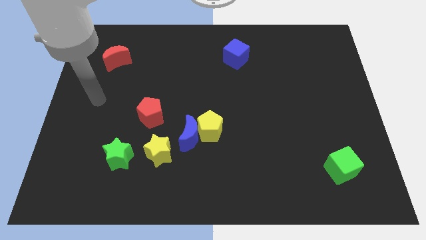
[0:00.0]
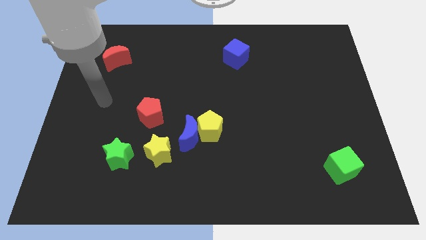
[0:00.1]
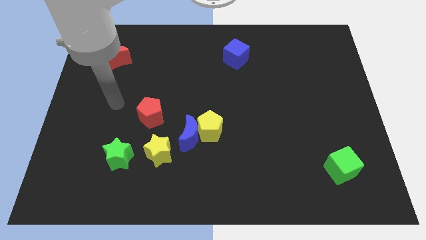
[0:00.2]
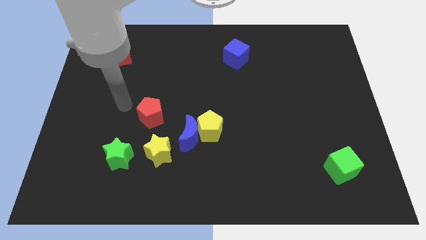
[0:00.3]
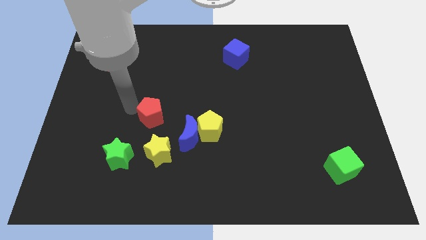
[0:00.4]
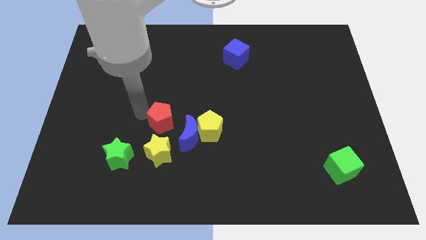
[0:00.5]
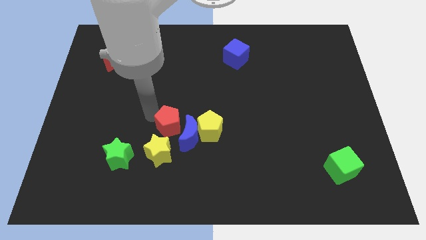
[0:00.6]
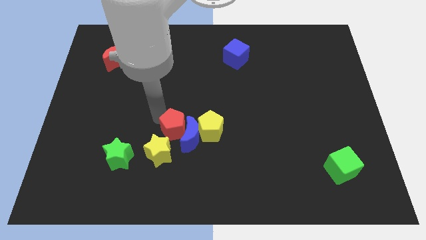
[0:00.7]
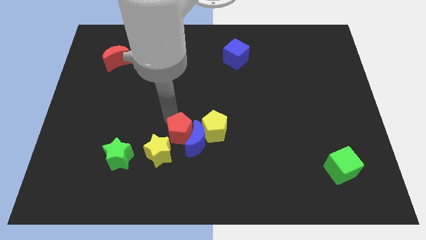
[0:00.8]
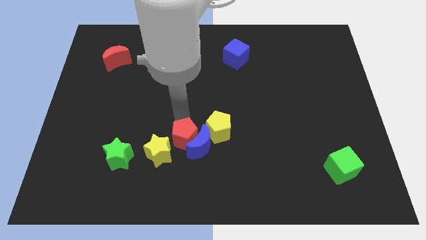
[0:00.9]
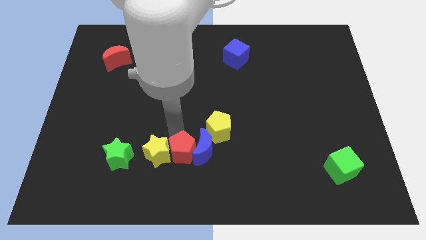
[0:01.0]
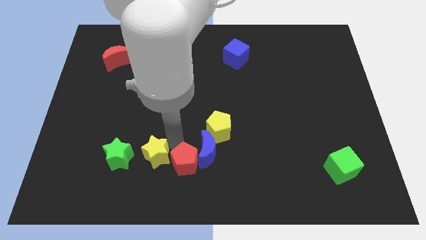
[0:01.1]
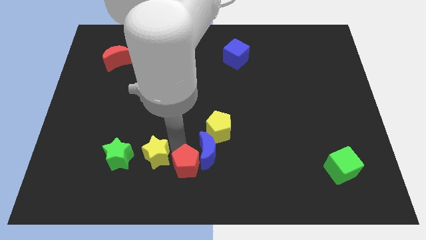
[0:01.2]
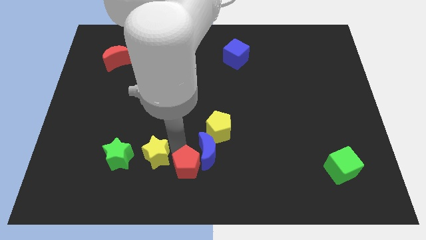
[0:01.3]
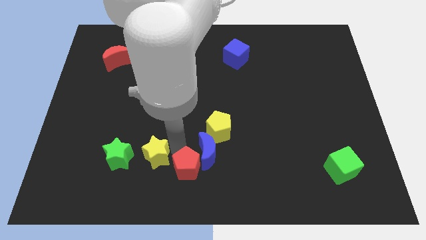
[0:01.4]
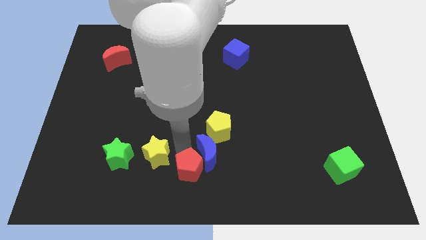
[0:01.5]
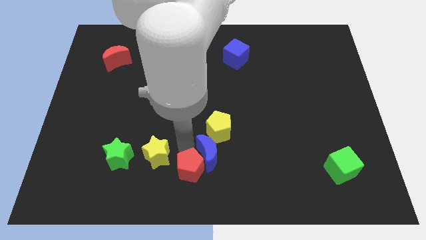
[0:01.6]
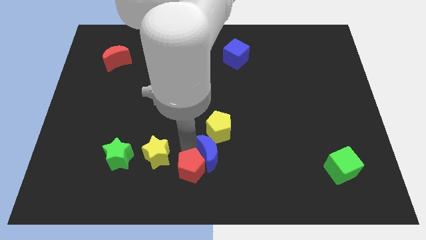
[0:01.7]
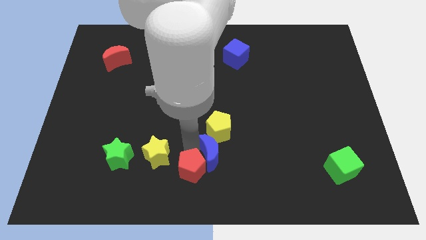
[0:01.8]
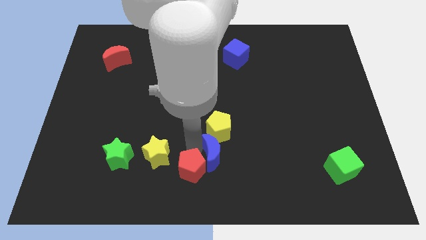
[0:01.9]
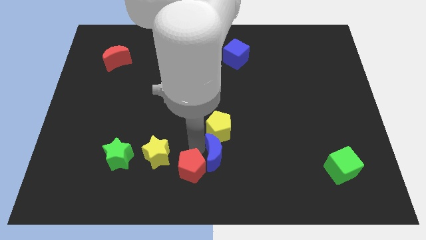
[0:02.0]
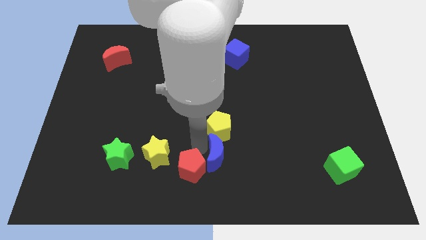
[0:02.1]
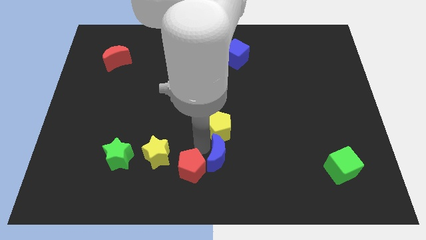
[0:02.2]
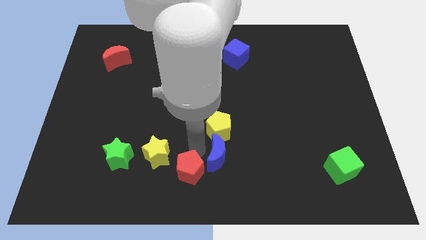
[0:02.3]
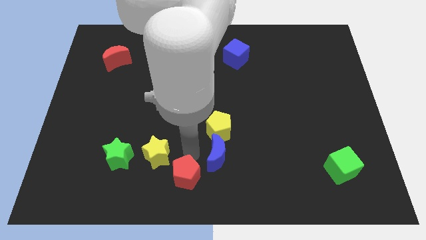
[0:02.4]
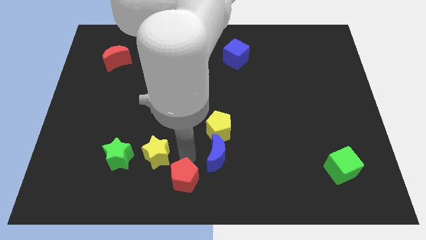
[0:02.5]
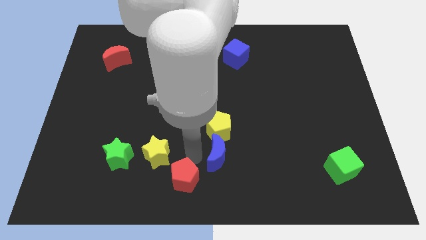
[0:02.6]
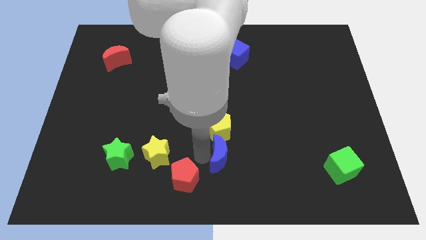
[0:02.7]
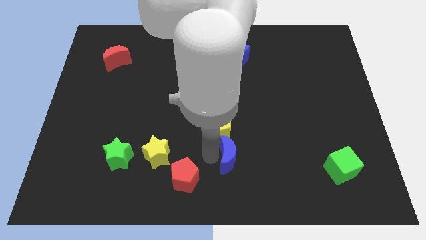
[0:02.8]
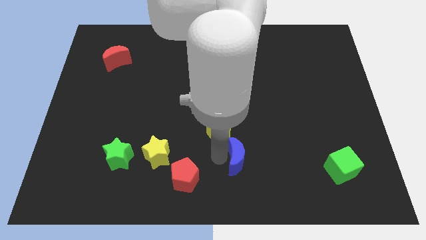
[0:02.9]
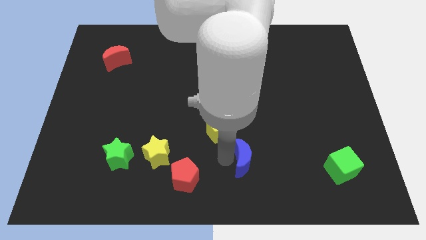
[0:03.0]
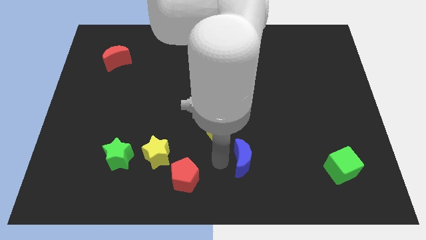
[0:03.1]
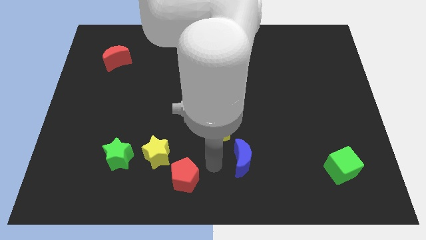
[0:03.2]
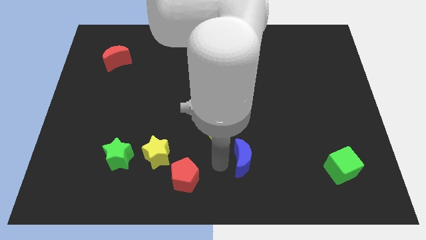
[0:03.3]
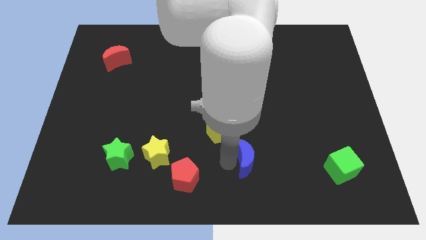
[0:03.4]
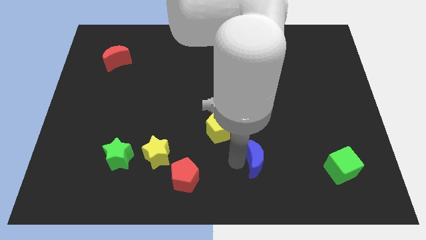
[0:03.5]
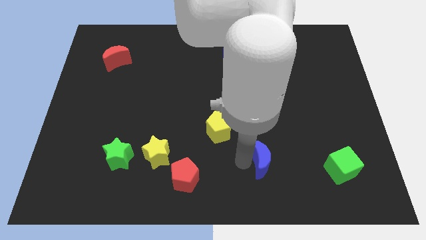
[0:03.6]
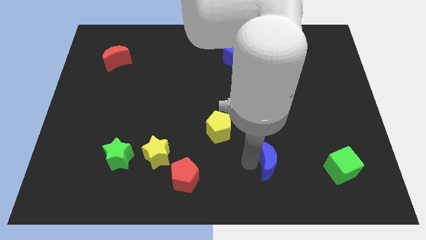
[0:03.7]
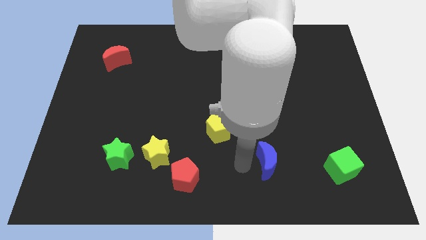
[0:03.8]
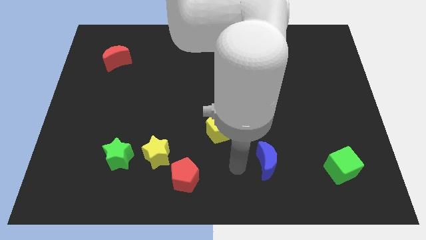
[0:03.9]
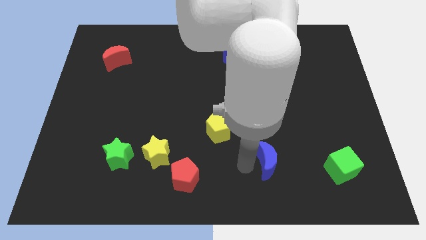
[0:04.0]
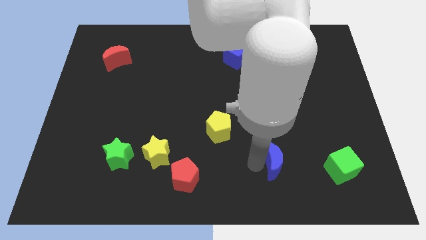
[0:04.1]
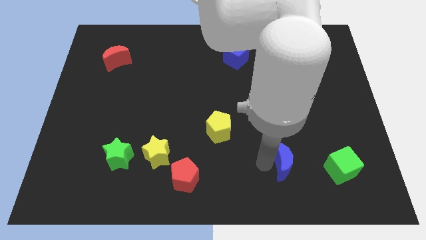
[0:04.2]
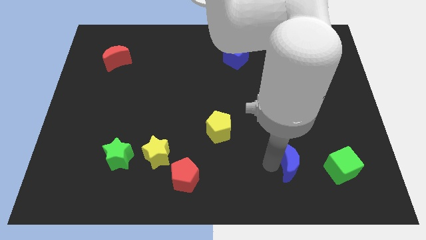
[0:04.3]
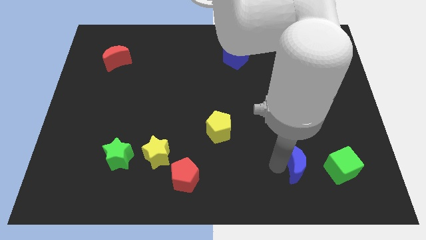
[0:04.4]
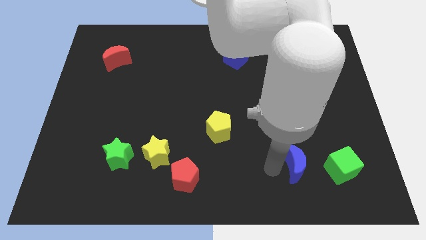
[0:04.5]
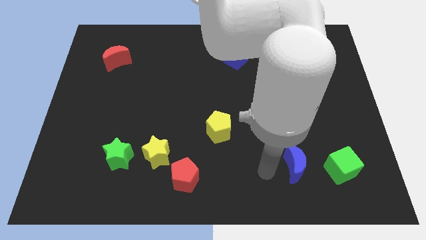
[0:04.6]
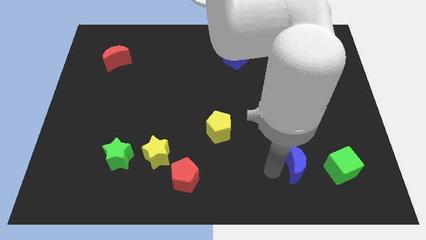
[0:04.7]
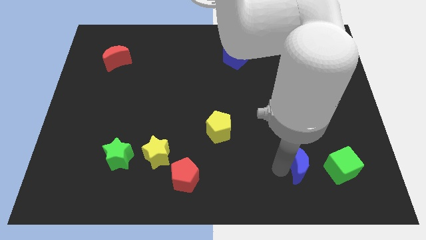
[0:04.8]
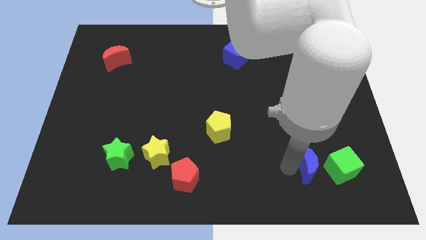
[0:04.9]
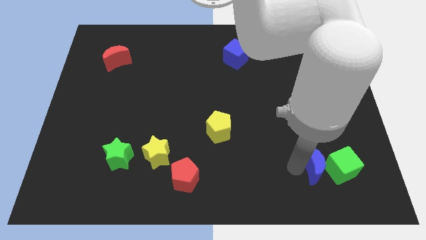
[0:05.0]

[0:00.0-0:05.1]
put the blue moon close to the green cube

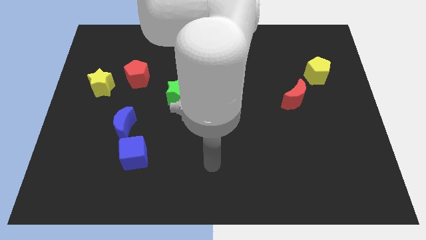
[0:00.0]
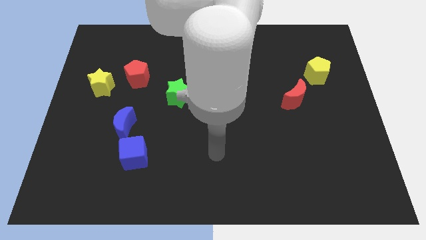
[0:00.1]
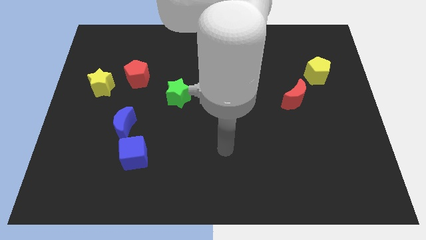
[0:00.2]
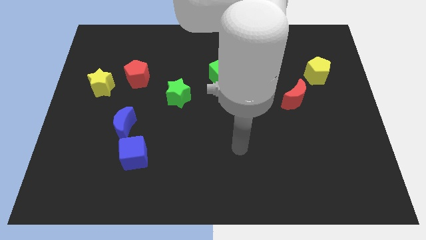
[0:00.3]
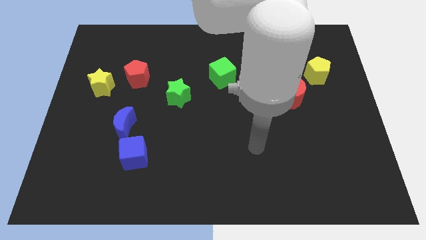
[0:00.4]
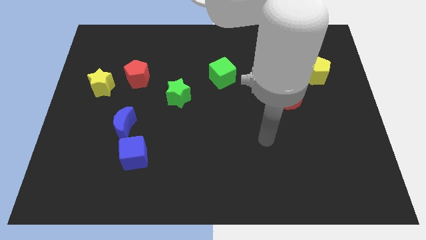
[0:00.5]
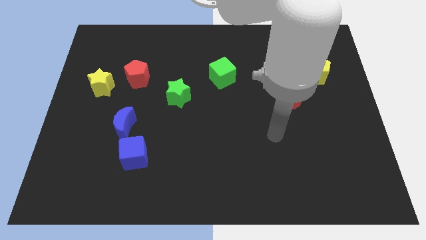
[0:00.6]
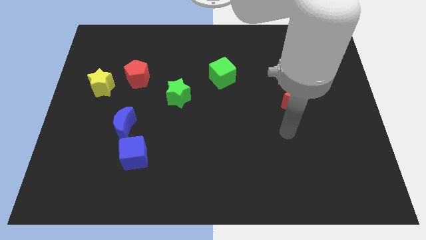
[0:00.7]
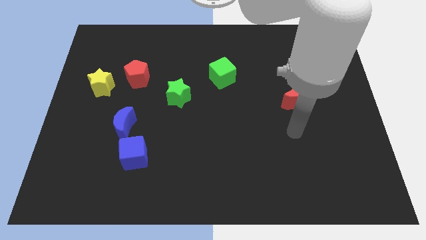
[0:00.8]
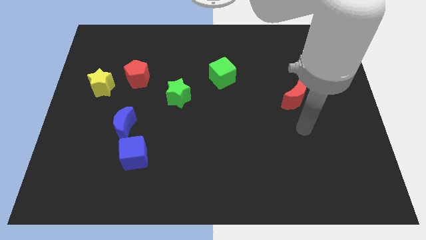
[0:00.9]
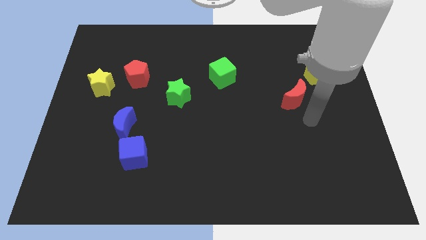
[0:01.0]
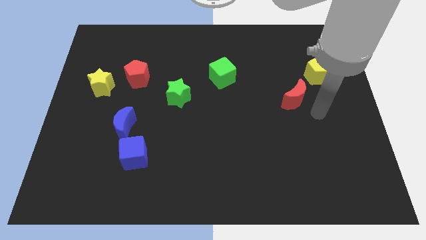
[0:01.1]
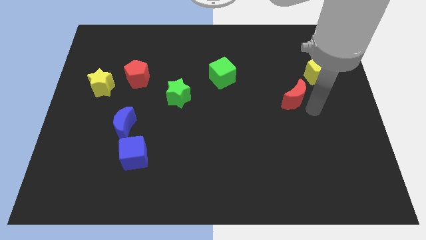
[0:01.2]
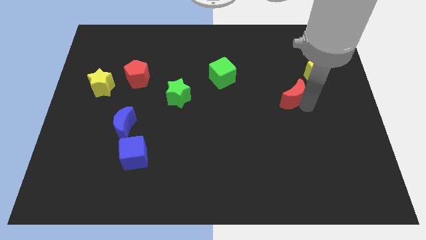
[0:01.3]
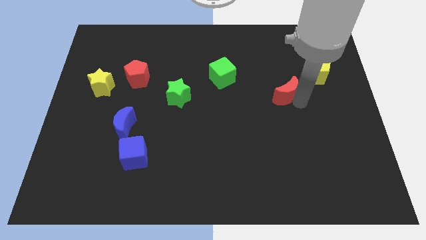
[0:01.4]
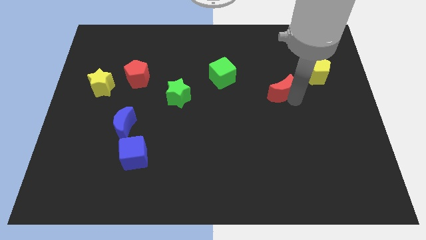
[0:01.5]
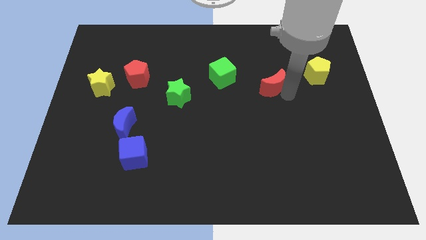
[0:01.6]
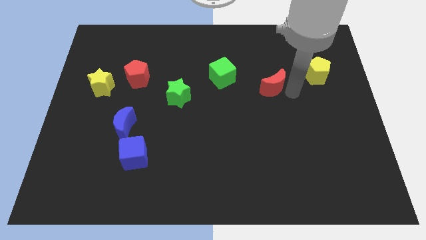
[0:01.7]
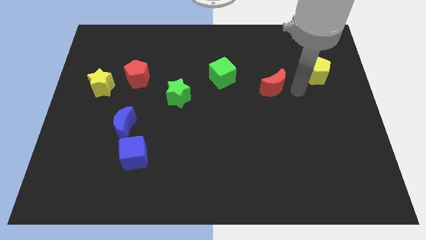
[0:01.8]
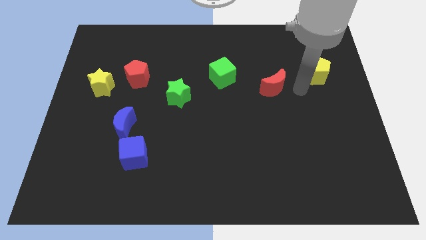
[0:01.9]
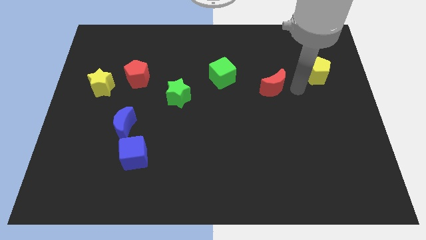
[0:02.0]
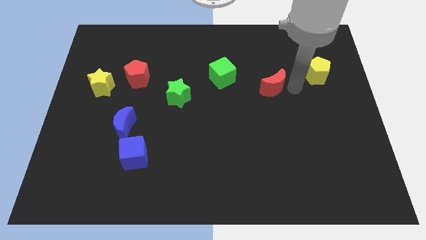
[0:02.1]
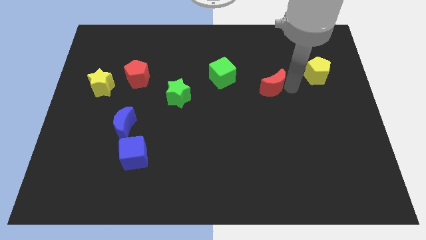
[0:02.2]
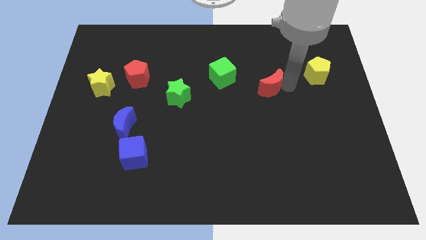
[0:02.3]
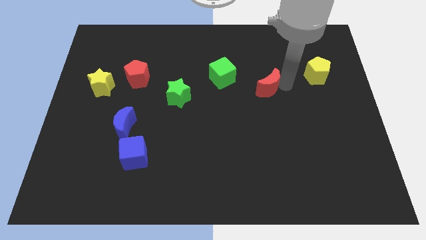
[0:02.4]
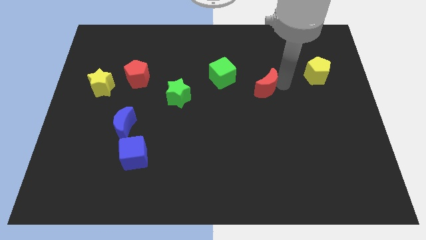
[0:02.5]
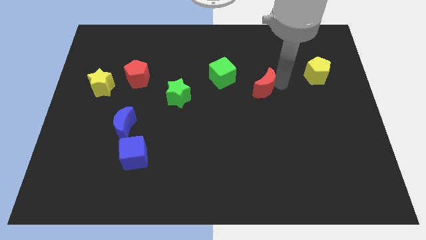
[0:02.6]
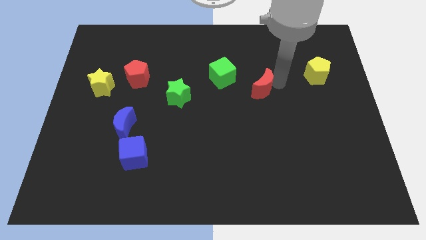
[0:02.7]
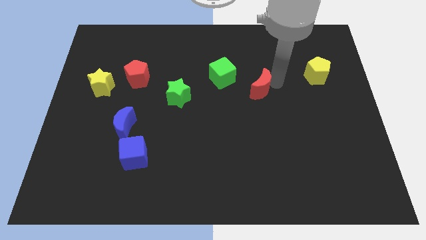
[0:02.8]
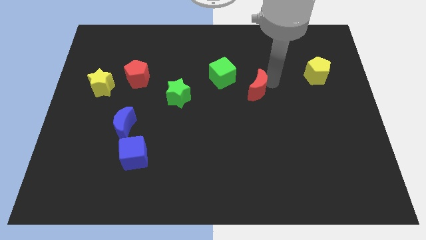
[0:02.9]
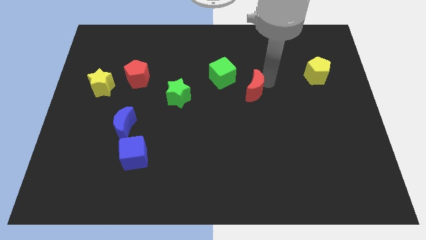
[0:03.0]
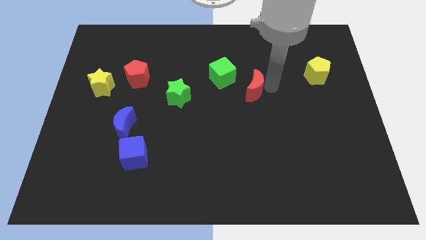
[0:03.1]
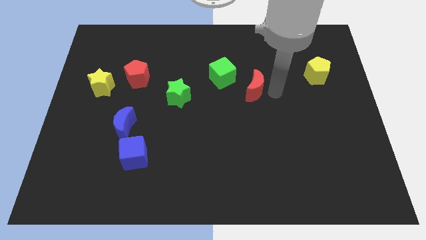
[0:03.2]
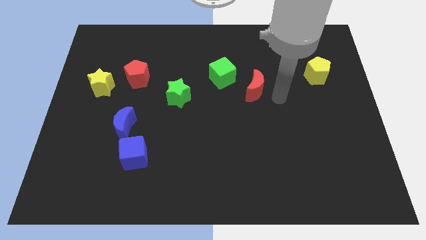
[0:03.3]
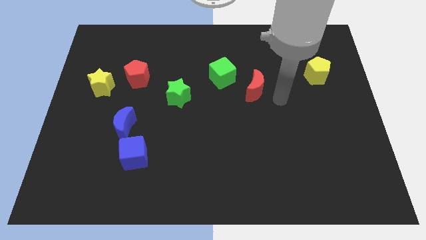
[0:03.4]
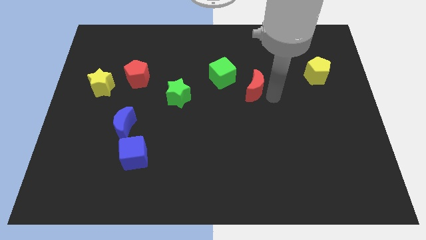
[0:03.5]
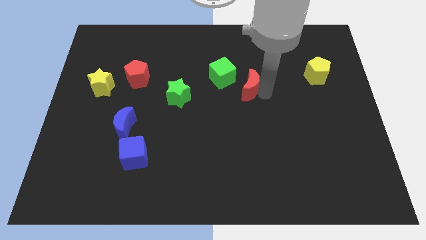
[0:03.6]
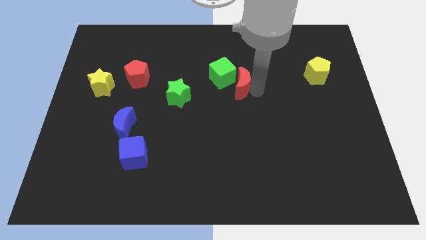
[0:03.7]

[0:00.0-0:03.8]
slide the red moon next to the green cube
